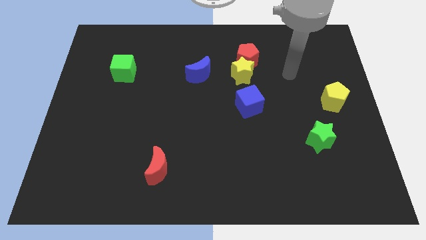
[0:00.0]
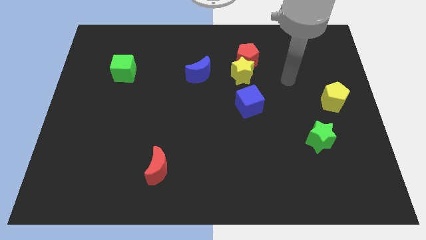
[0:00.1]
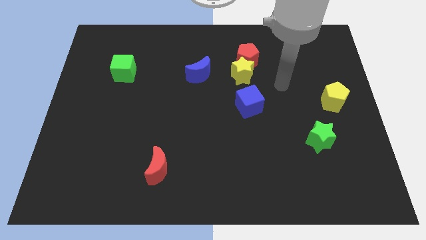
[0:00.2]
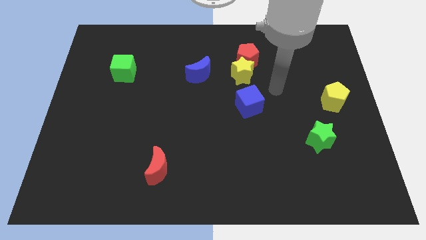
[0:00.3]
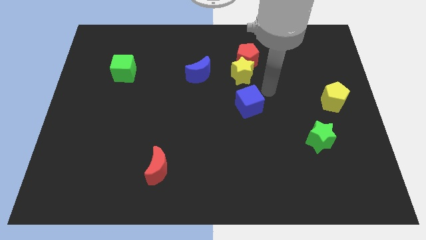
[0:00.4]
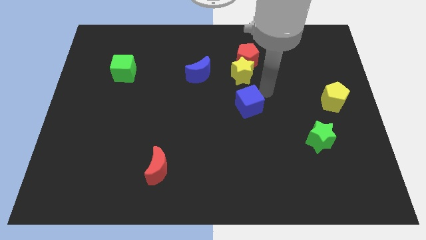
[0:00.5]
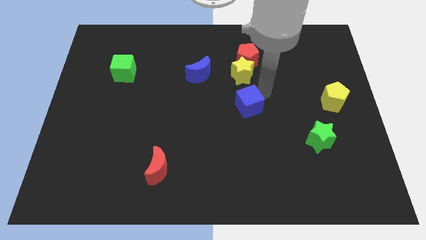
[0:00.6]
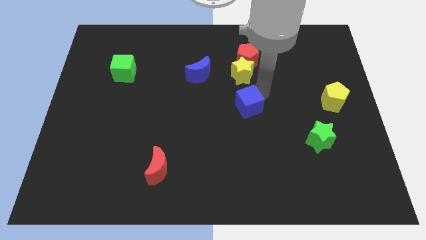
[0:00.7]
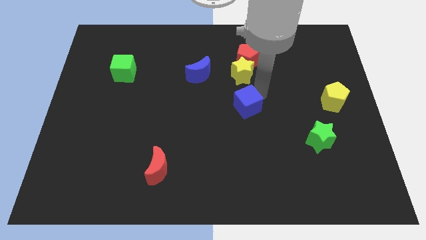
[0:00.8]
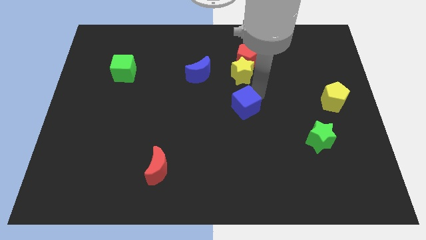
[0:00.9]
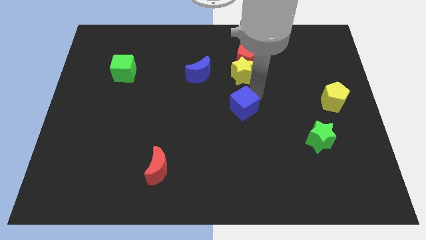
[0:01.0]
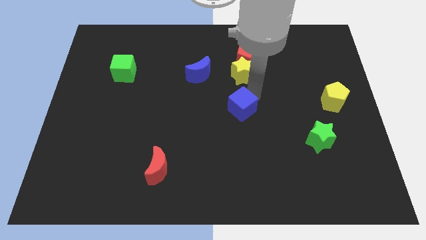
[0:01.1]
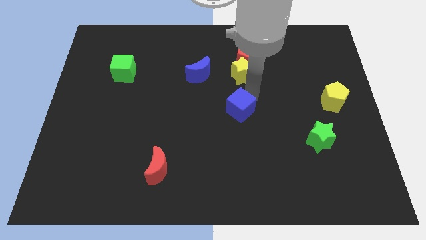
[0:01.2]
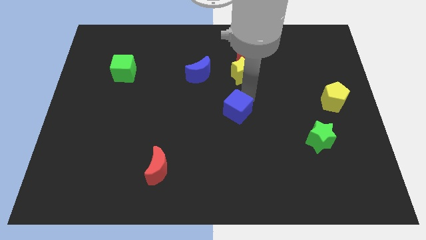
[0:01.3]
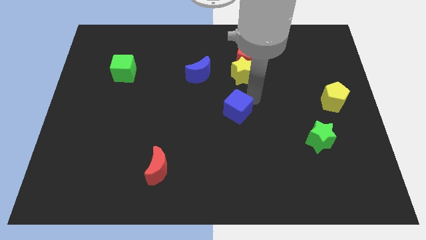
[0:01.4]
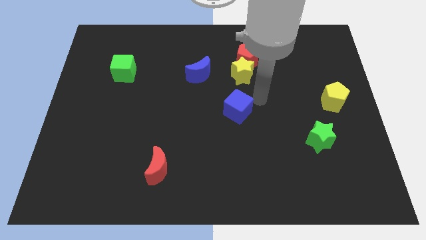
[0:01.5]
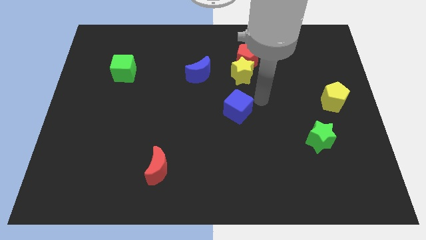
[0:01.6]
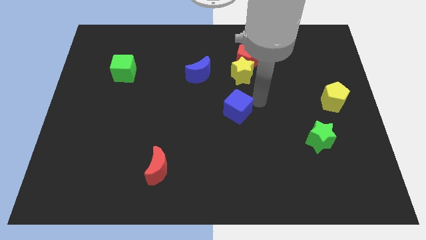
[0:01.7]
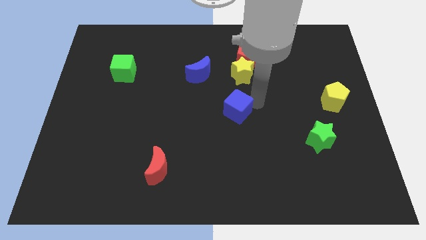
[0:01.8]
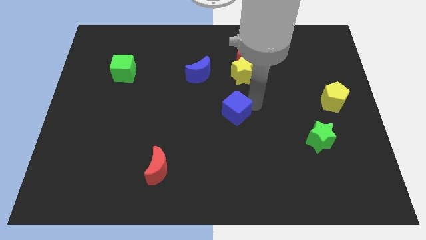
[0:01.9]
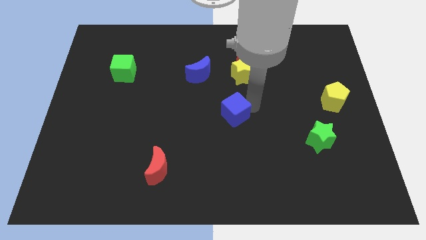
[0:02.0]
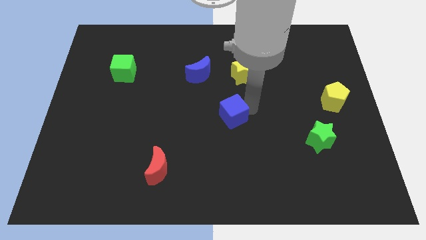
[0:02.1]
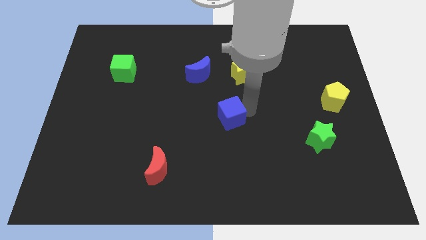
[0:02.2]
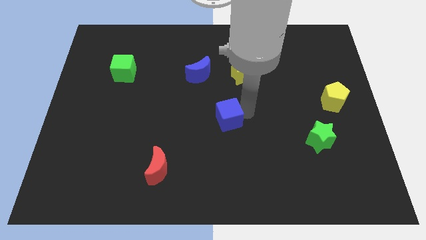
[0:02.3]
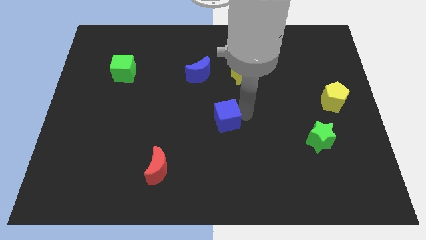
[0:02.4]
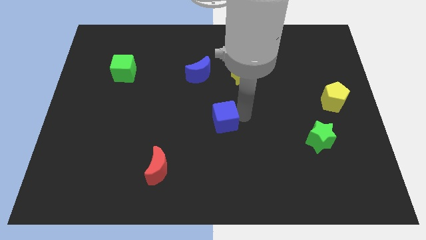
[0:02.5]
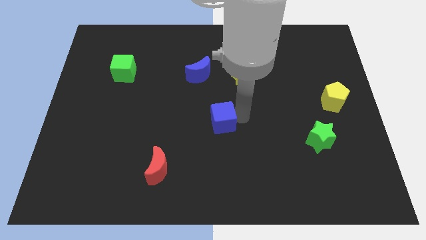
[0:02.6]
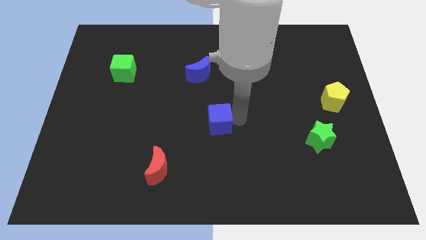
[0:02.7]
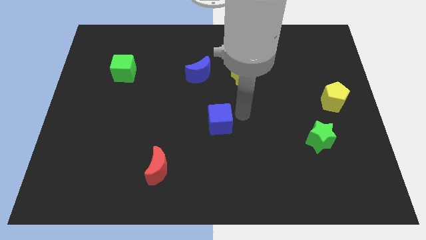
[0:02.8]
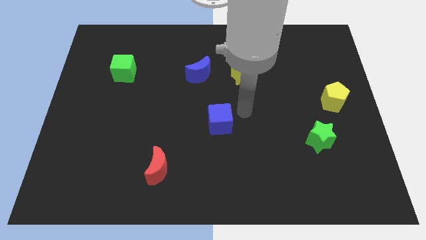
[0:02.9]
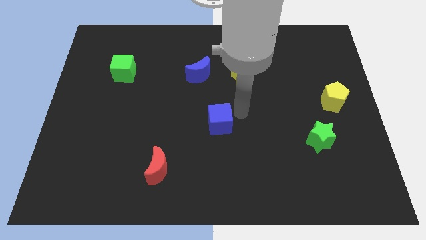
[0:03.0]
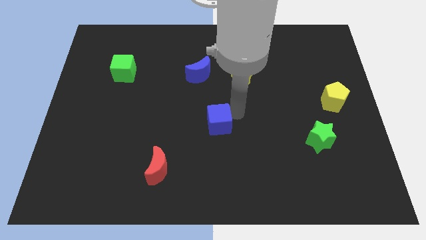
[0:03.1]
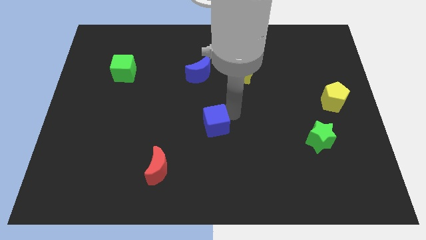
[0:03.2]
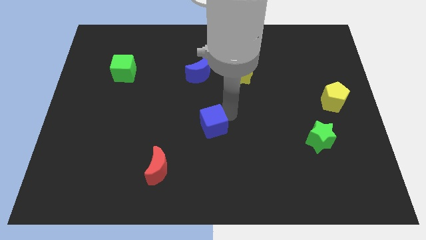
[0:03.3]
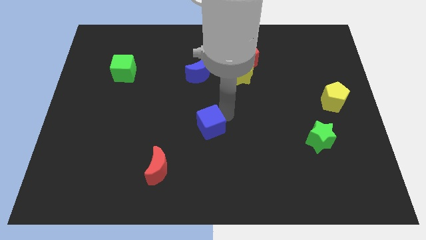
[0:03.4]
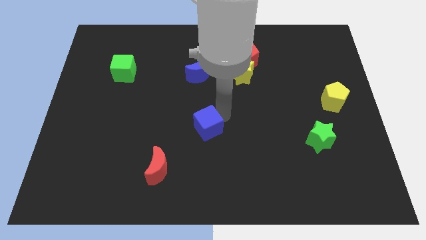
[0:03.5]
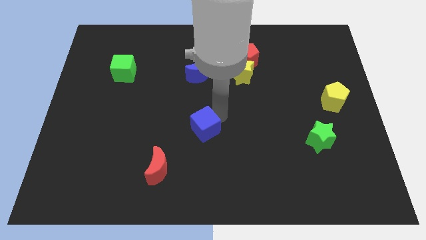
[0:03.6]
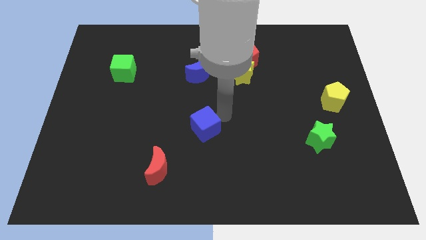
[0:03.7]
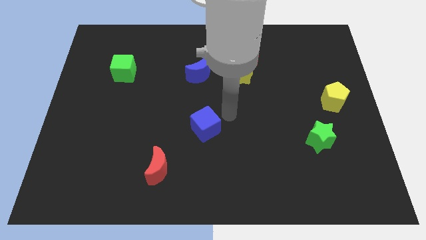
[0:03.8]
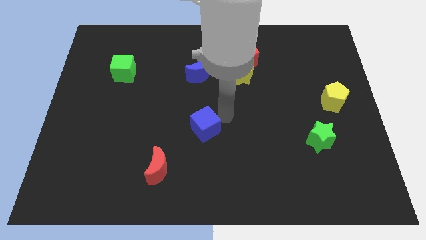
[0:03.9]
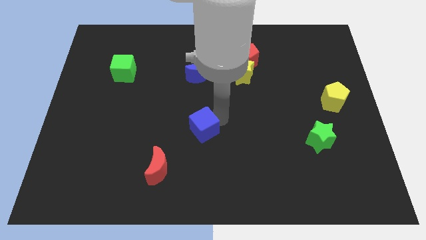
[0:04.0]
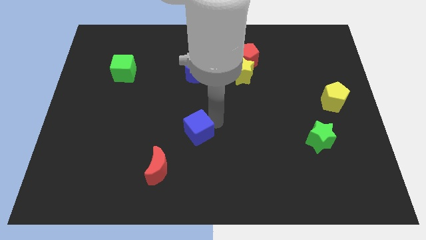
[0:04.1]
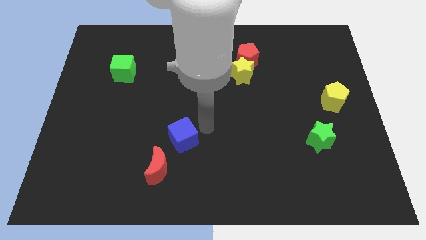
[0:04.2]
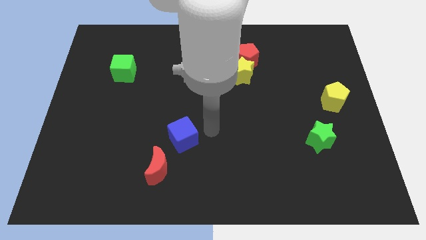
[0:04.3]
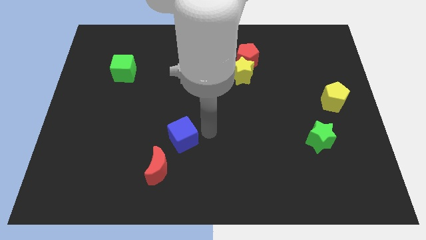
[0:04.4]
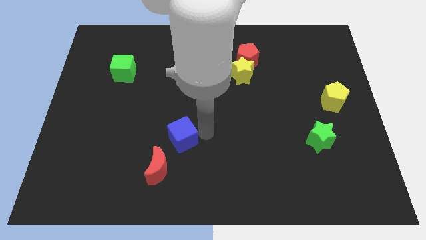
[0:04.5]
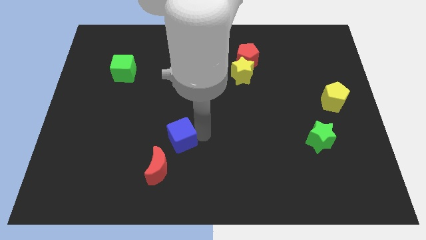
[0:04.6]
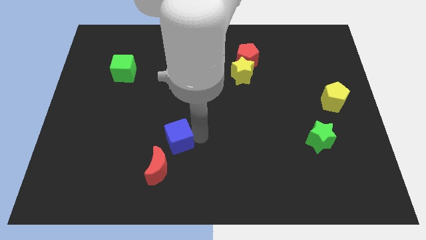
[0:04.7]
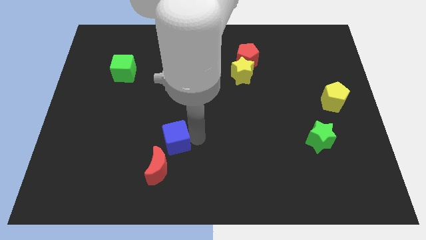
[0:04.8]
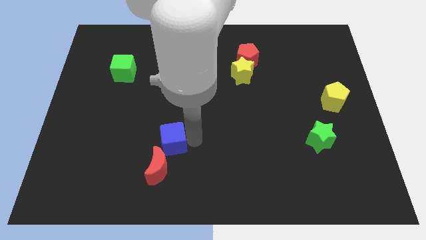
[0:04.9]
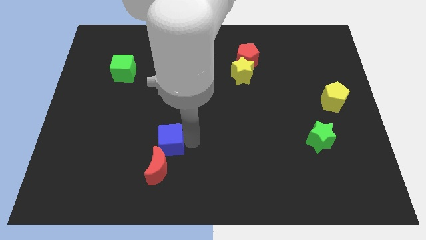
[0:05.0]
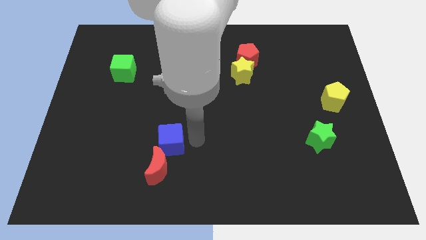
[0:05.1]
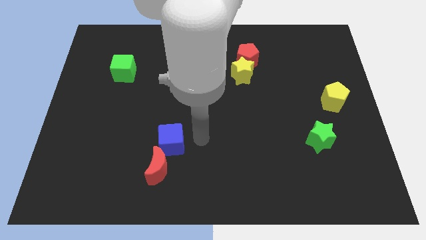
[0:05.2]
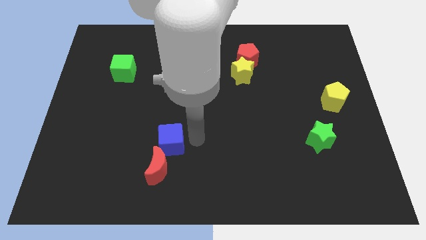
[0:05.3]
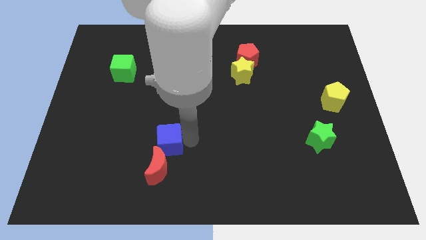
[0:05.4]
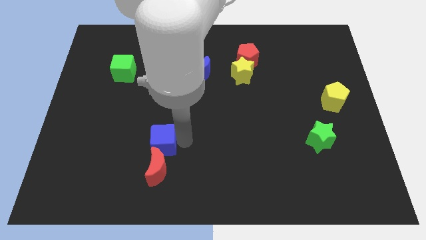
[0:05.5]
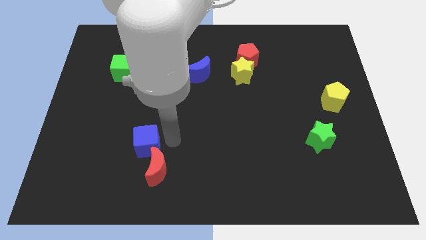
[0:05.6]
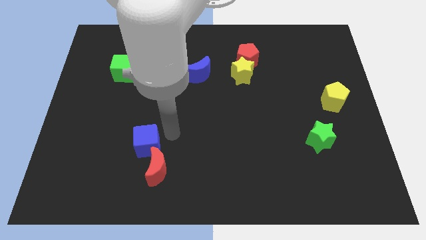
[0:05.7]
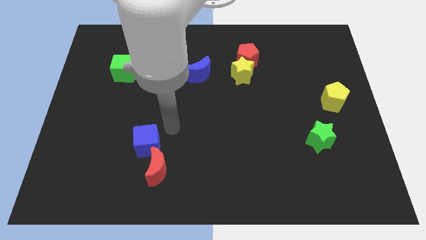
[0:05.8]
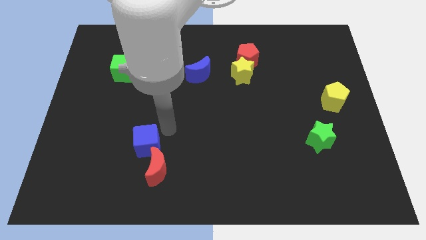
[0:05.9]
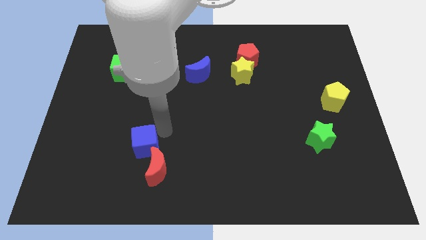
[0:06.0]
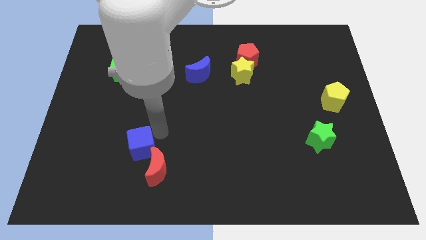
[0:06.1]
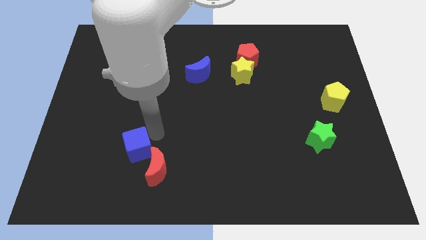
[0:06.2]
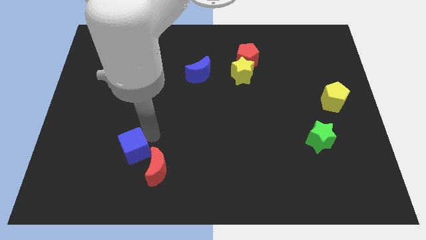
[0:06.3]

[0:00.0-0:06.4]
push the blue cube to the left of the red moon

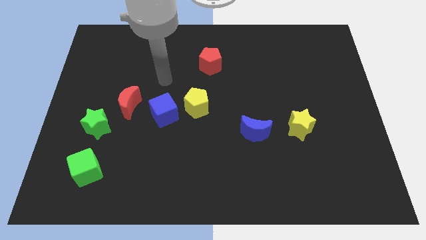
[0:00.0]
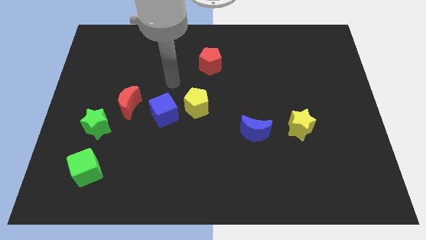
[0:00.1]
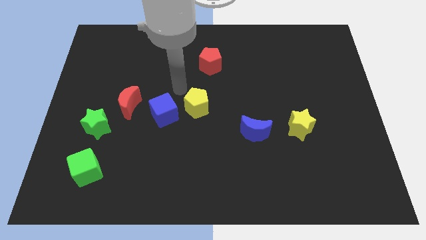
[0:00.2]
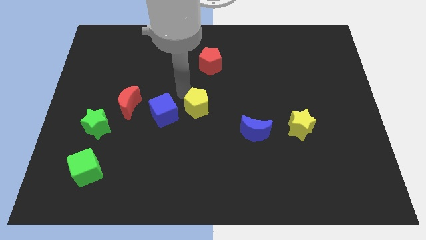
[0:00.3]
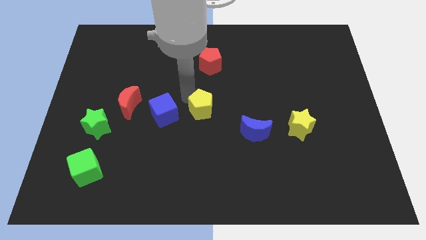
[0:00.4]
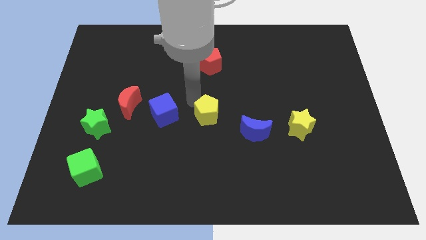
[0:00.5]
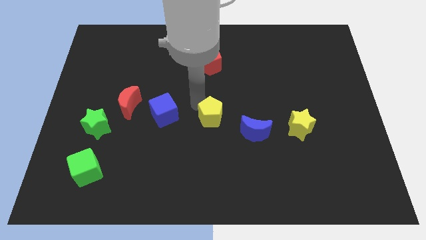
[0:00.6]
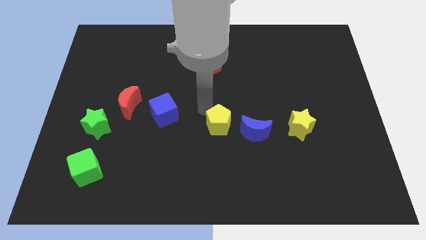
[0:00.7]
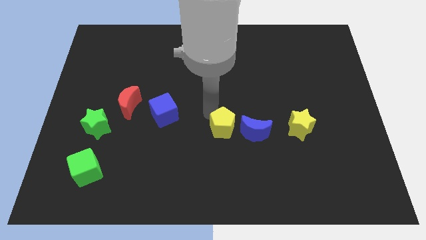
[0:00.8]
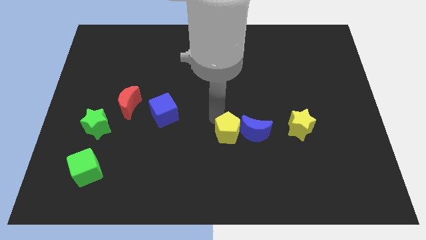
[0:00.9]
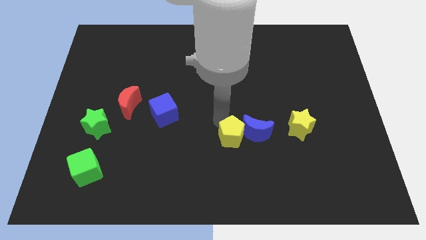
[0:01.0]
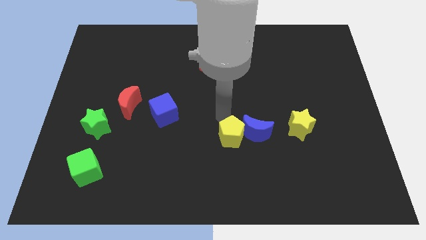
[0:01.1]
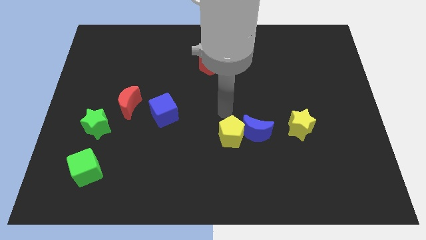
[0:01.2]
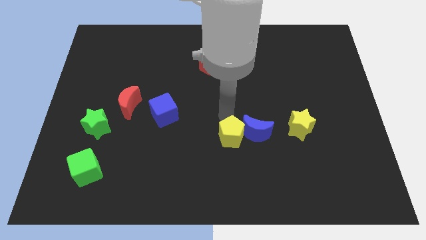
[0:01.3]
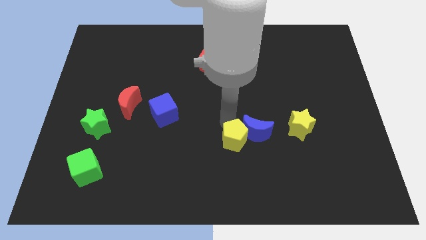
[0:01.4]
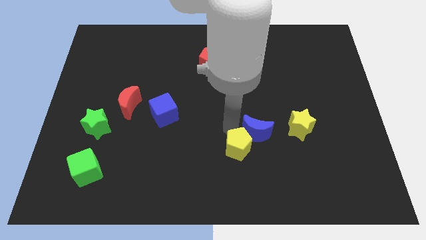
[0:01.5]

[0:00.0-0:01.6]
move the yellow pentagon to the bottom side of the blue moon
